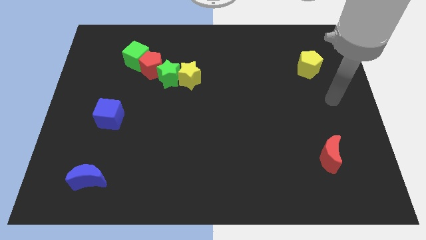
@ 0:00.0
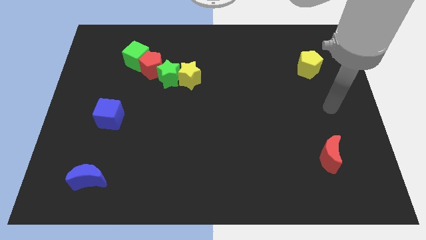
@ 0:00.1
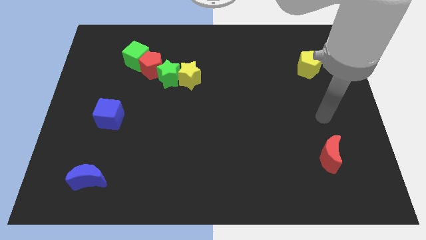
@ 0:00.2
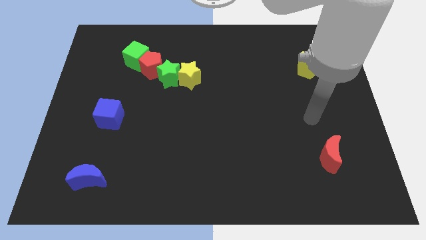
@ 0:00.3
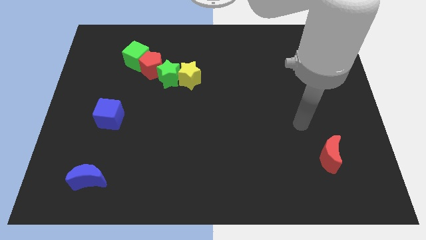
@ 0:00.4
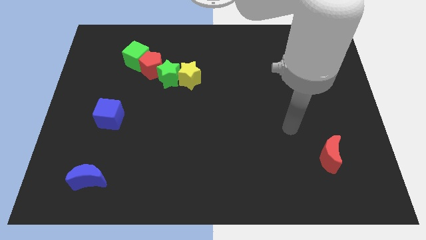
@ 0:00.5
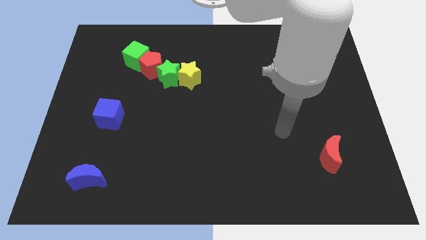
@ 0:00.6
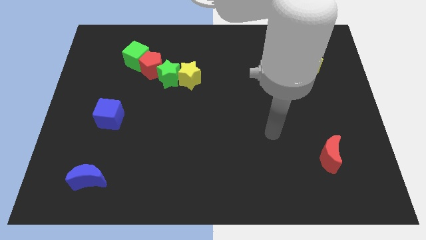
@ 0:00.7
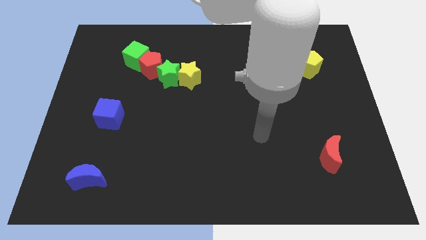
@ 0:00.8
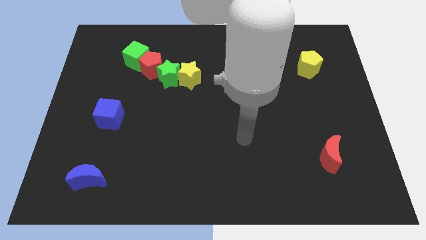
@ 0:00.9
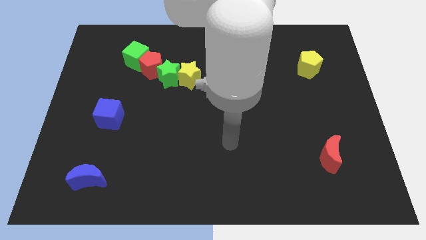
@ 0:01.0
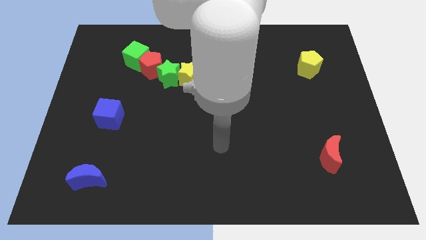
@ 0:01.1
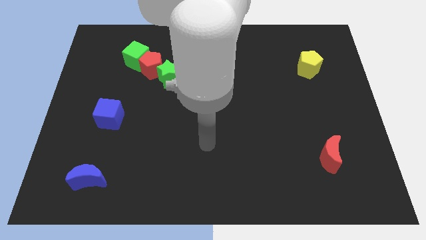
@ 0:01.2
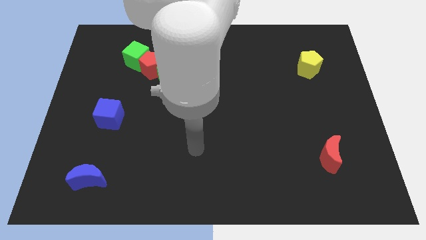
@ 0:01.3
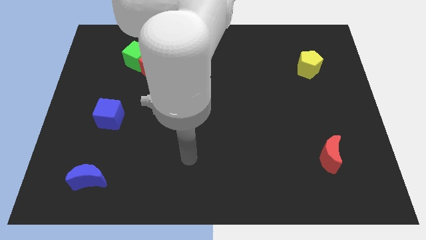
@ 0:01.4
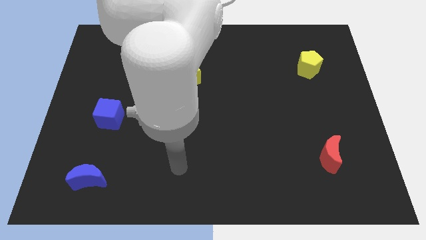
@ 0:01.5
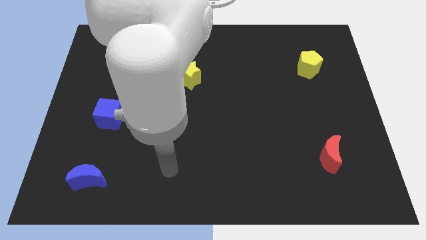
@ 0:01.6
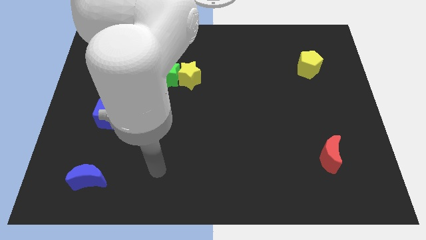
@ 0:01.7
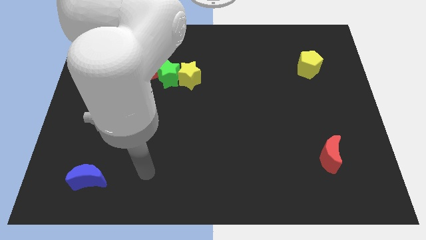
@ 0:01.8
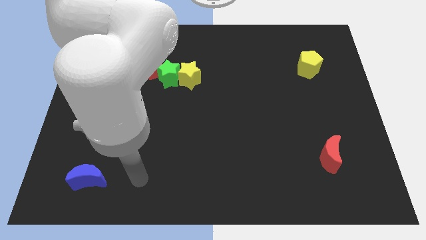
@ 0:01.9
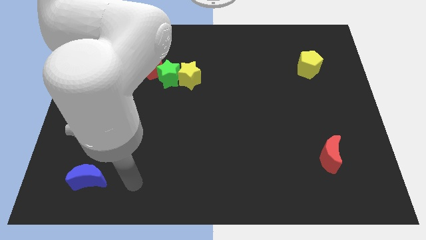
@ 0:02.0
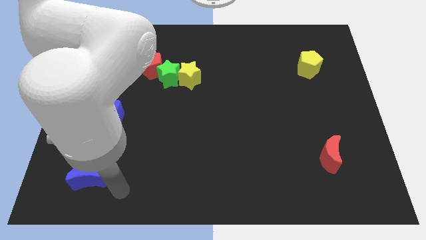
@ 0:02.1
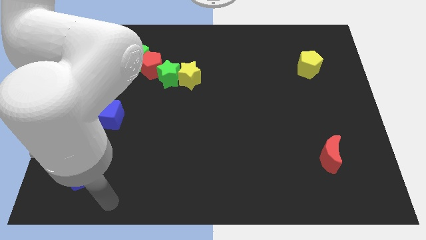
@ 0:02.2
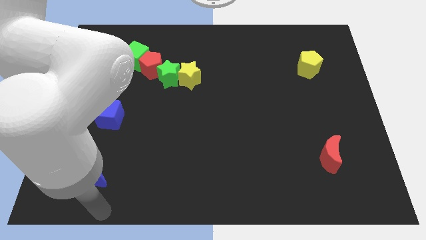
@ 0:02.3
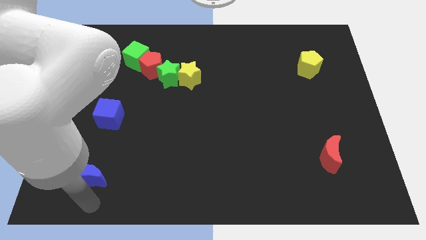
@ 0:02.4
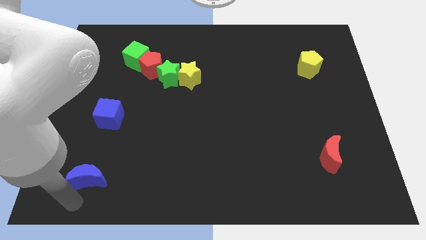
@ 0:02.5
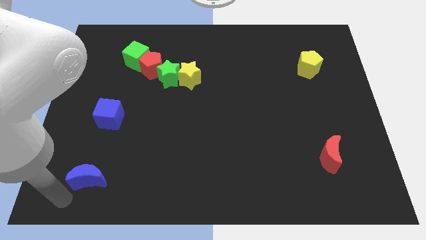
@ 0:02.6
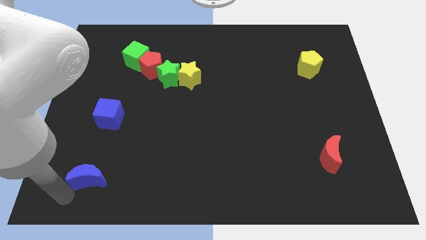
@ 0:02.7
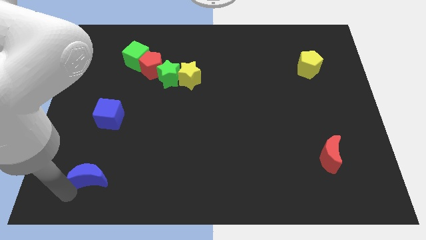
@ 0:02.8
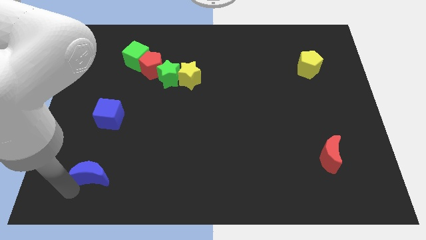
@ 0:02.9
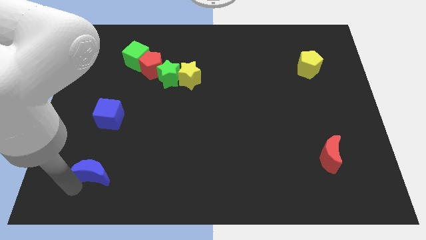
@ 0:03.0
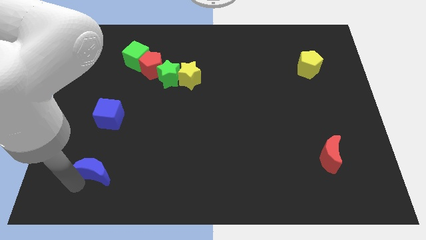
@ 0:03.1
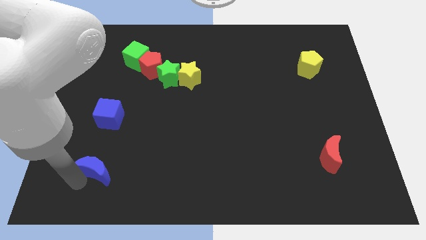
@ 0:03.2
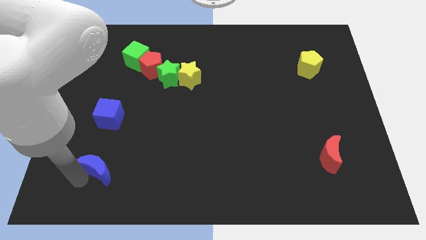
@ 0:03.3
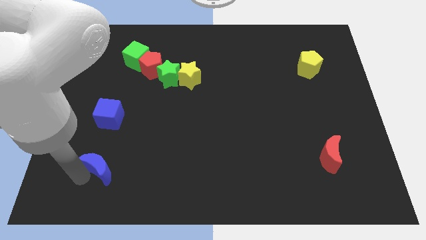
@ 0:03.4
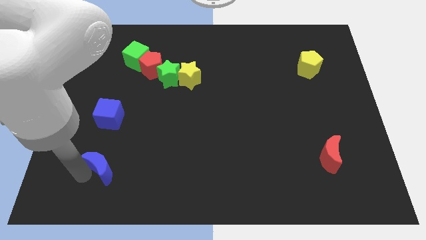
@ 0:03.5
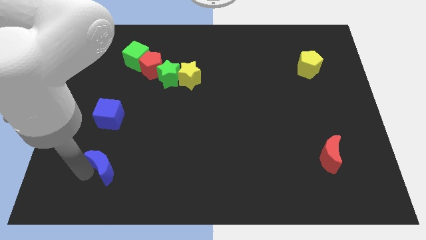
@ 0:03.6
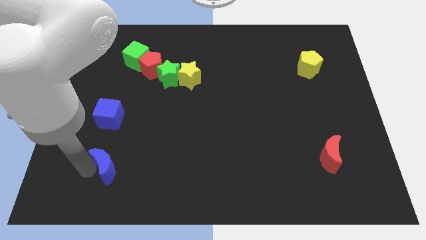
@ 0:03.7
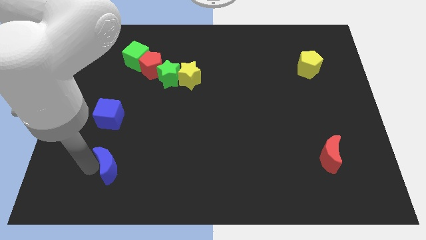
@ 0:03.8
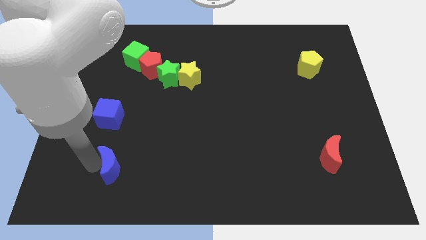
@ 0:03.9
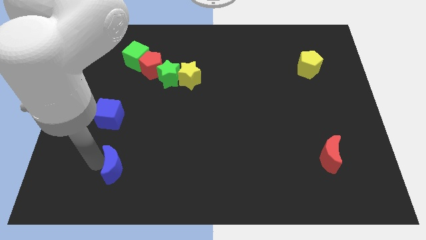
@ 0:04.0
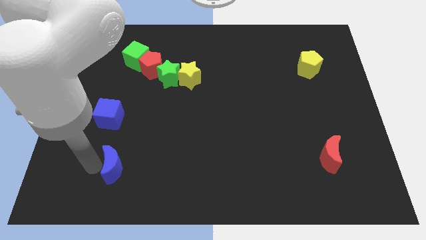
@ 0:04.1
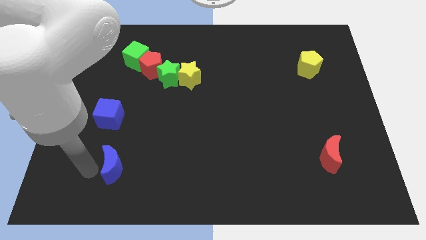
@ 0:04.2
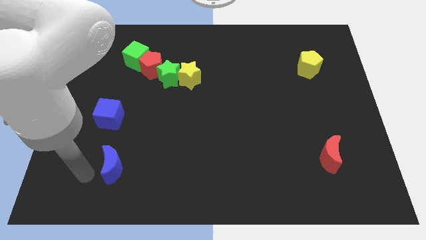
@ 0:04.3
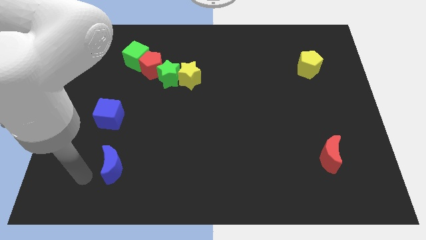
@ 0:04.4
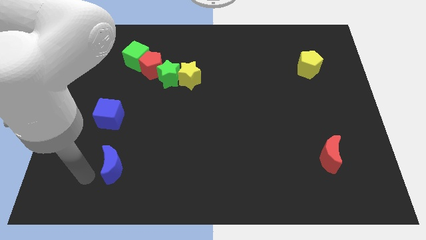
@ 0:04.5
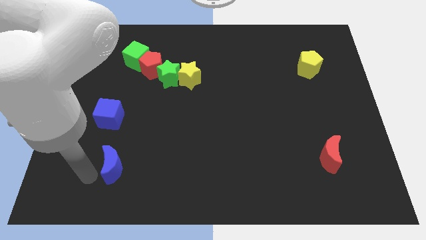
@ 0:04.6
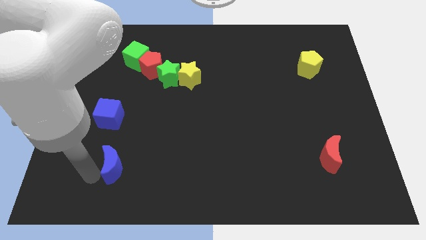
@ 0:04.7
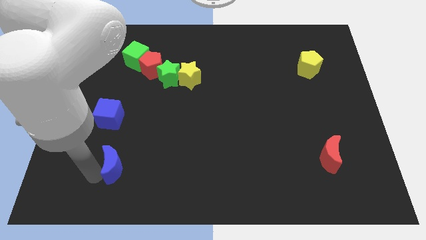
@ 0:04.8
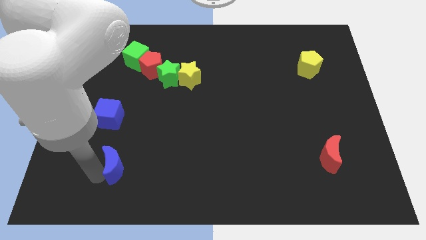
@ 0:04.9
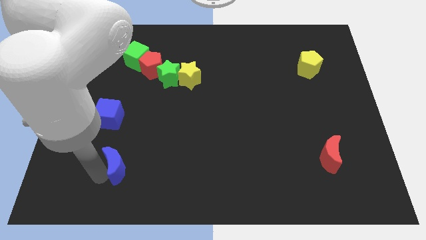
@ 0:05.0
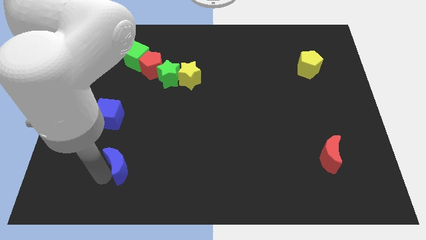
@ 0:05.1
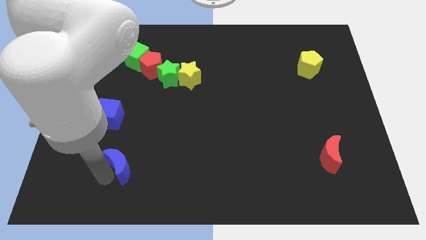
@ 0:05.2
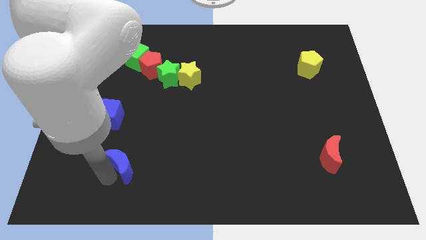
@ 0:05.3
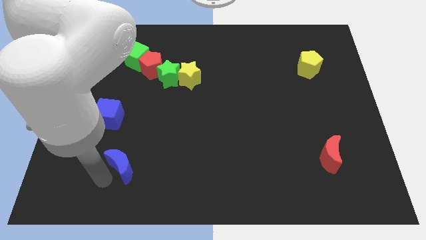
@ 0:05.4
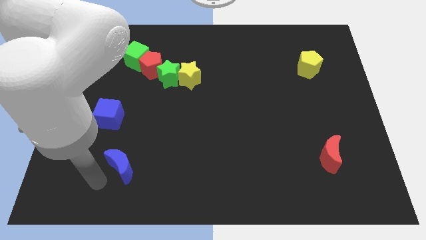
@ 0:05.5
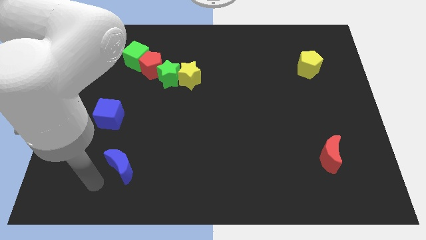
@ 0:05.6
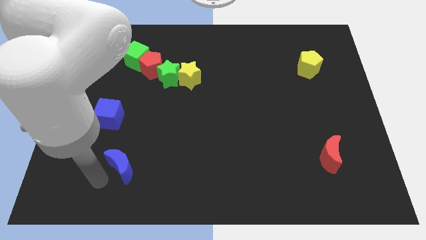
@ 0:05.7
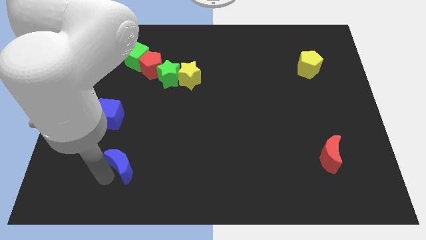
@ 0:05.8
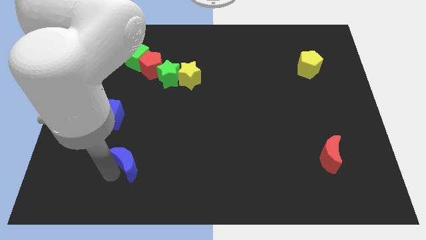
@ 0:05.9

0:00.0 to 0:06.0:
slightly move the blue moon up and then to the right

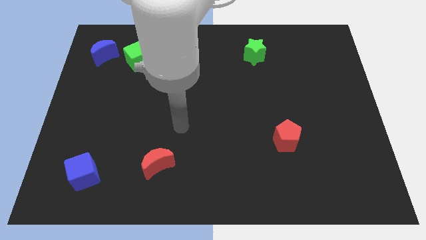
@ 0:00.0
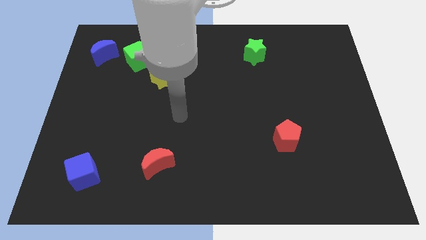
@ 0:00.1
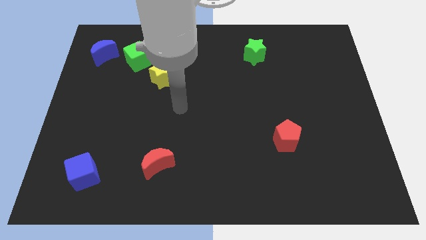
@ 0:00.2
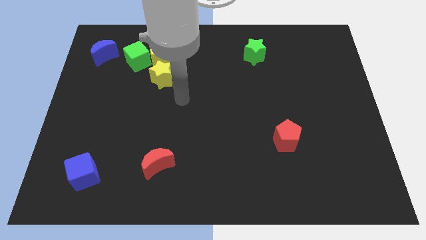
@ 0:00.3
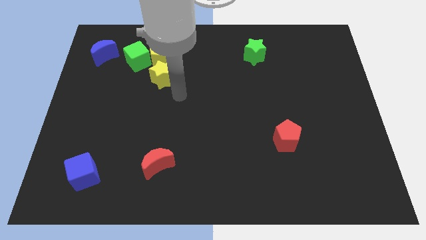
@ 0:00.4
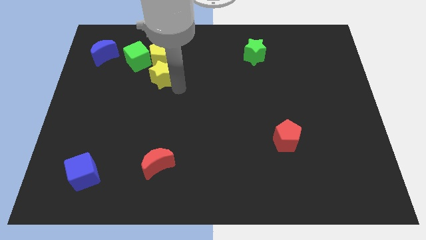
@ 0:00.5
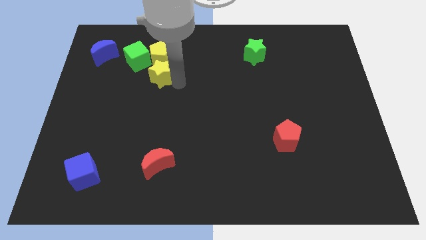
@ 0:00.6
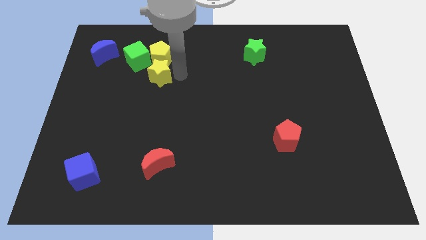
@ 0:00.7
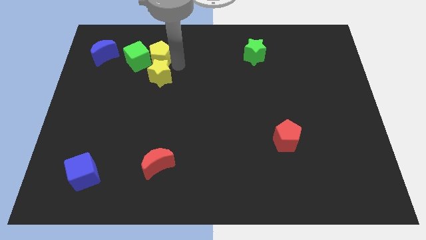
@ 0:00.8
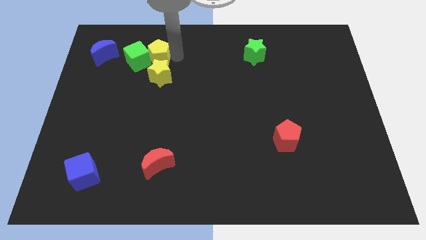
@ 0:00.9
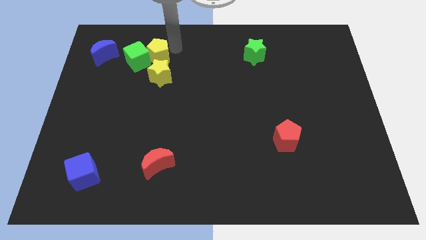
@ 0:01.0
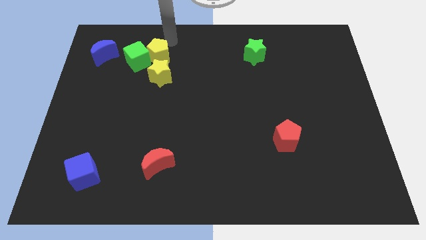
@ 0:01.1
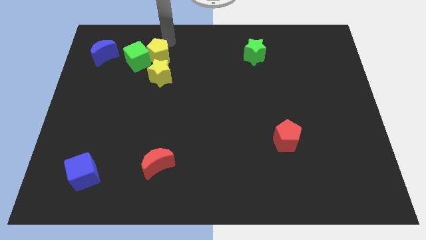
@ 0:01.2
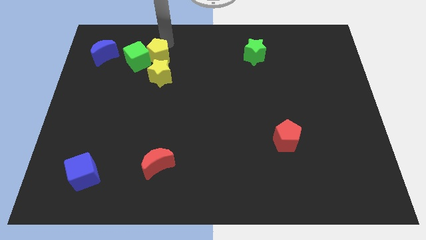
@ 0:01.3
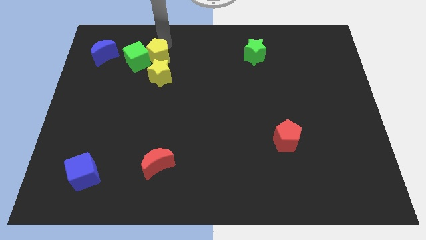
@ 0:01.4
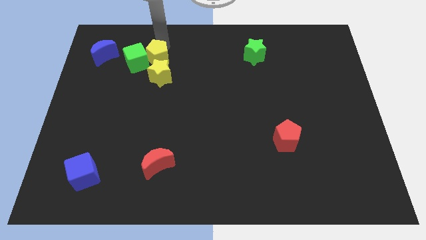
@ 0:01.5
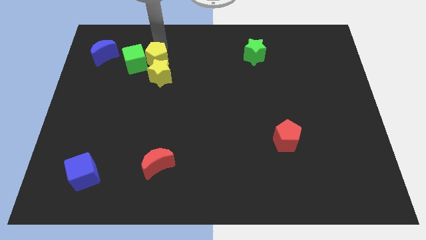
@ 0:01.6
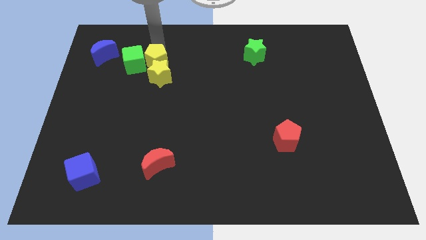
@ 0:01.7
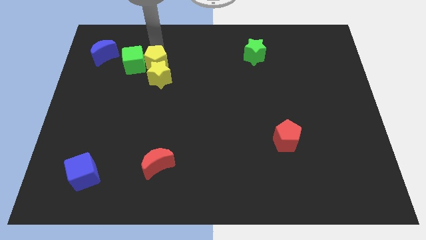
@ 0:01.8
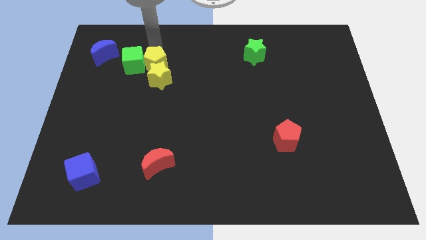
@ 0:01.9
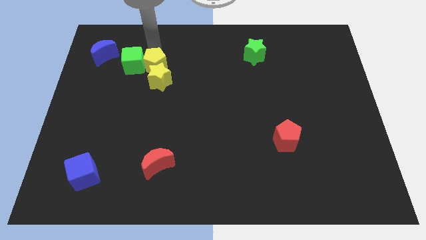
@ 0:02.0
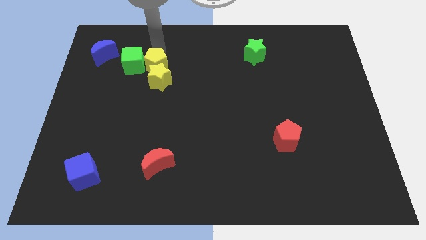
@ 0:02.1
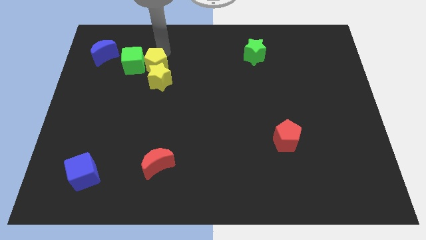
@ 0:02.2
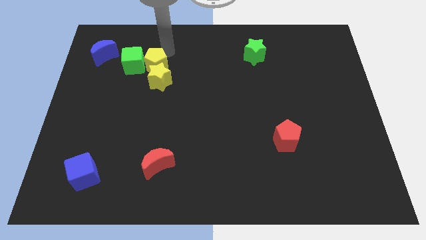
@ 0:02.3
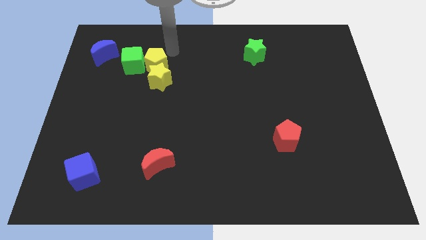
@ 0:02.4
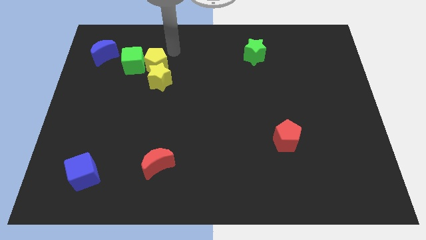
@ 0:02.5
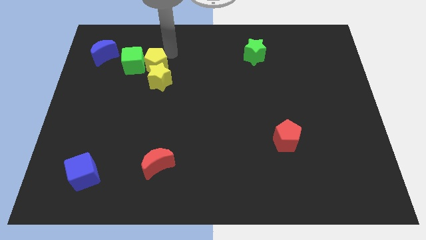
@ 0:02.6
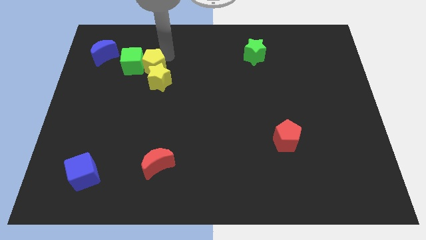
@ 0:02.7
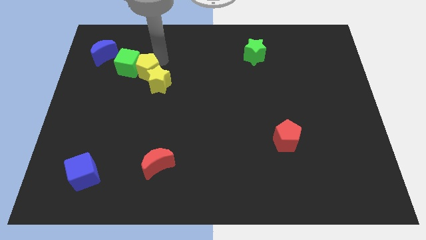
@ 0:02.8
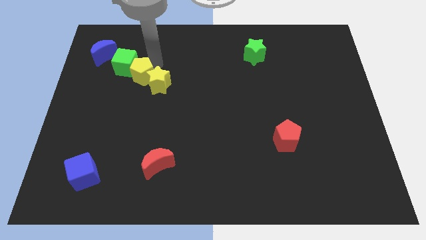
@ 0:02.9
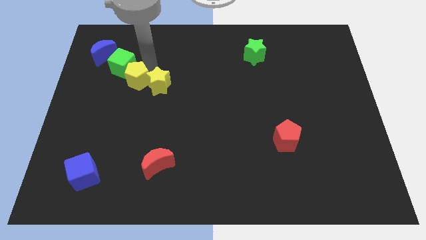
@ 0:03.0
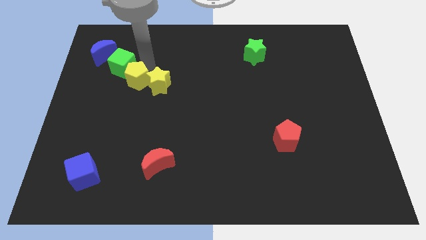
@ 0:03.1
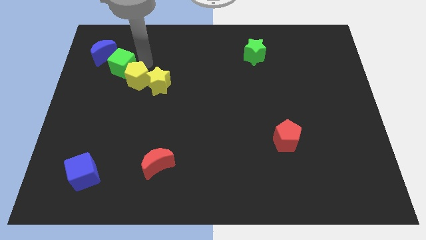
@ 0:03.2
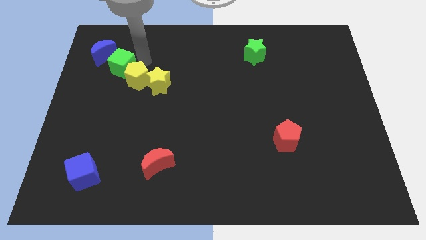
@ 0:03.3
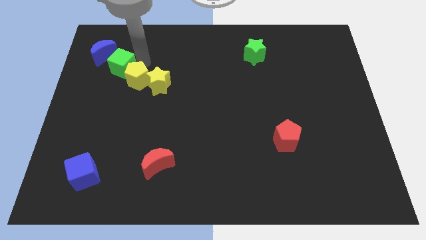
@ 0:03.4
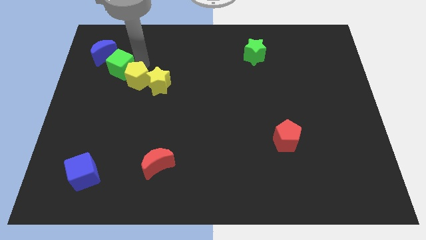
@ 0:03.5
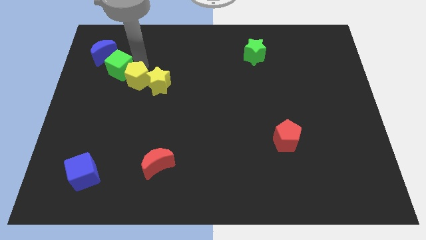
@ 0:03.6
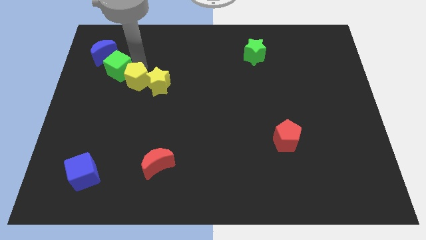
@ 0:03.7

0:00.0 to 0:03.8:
slightly move the yellow pentagon down
